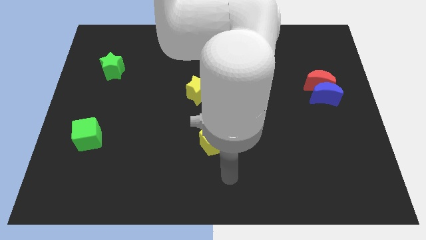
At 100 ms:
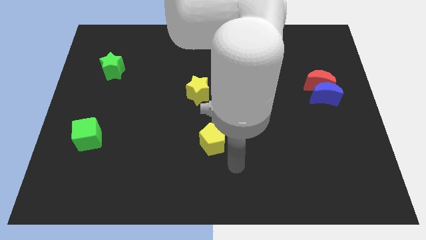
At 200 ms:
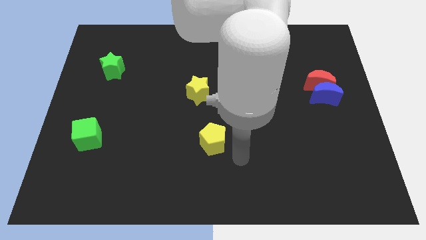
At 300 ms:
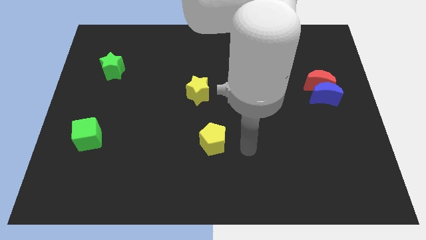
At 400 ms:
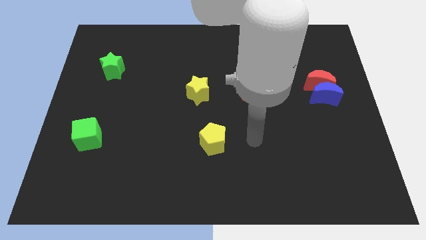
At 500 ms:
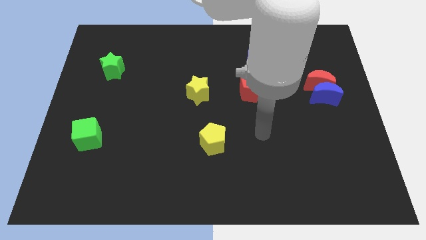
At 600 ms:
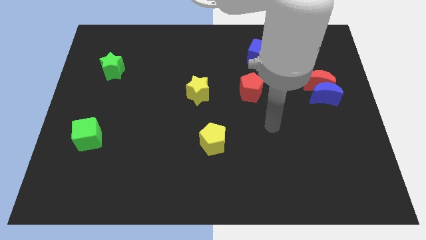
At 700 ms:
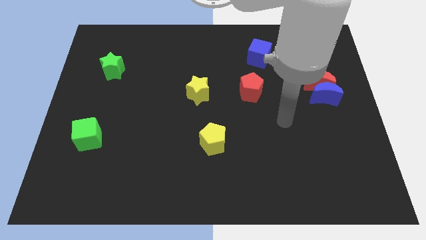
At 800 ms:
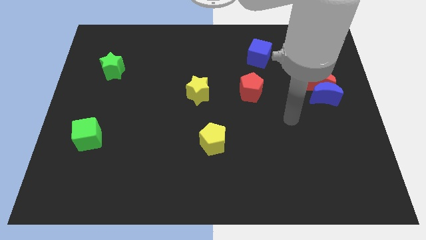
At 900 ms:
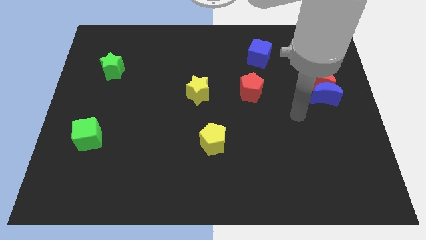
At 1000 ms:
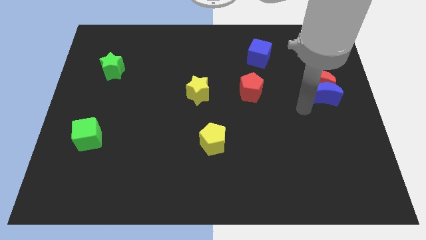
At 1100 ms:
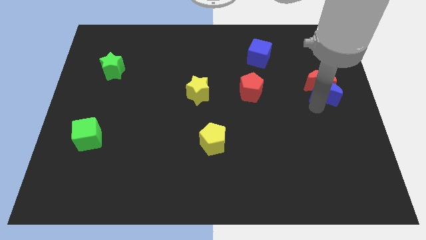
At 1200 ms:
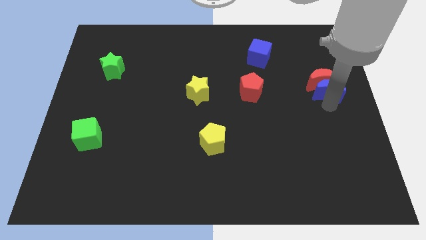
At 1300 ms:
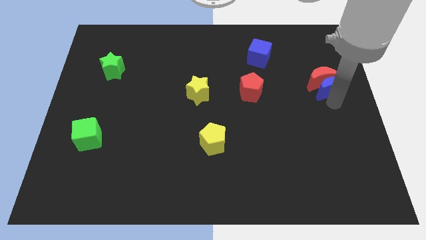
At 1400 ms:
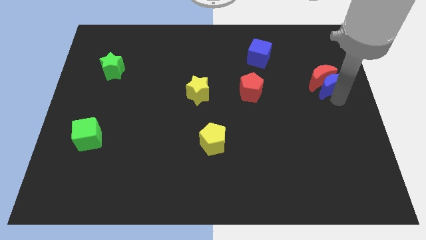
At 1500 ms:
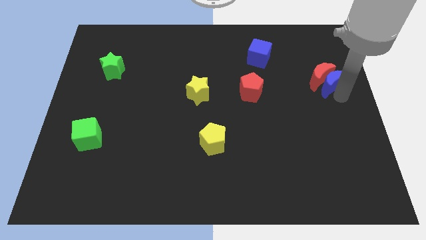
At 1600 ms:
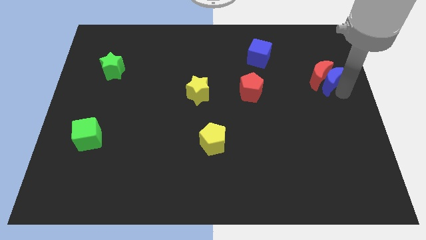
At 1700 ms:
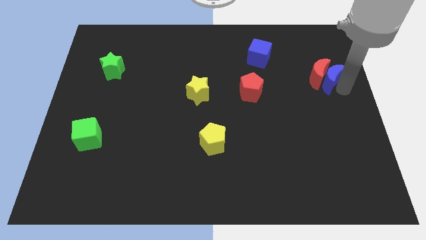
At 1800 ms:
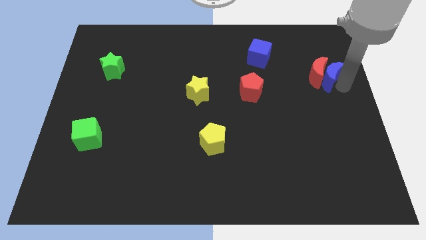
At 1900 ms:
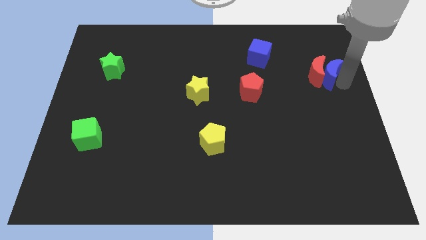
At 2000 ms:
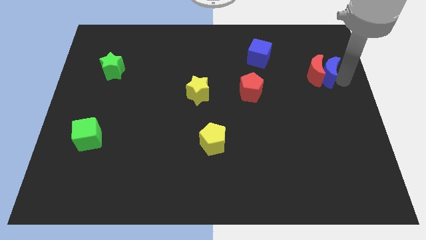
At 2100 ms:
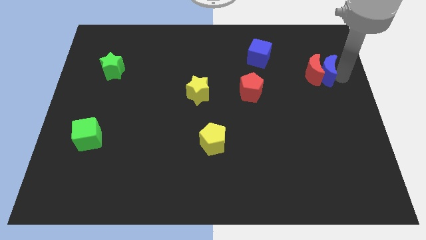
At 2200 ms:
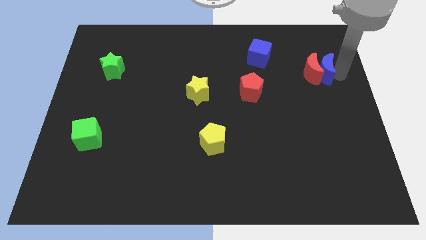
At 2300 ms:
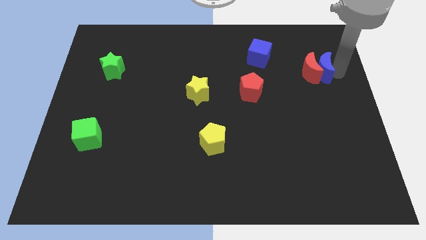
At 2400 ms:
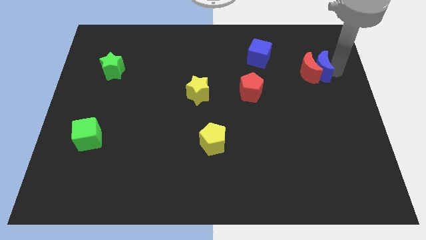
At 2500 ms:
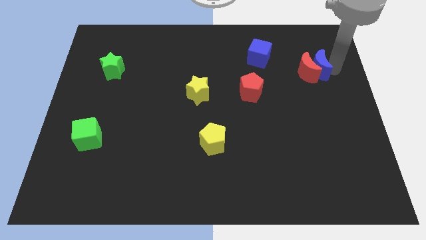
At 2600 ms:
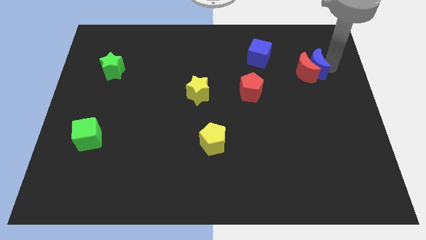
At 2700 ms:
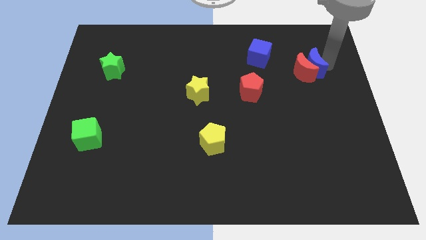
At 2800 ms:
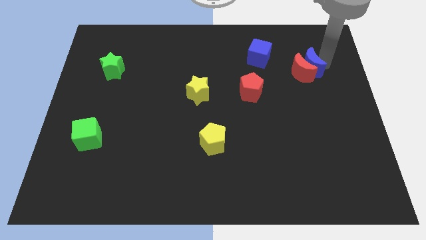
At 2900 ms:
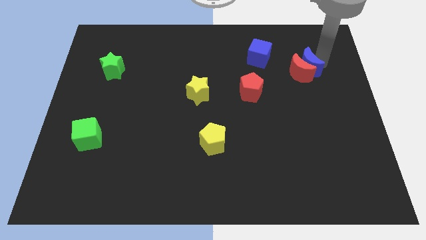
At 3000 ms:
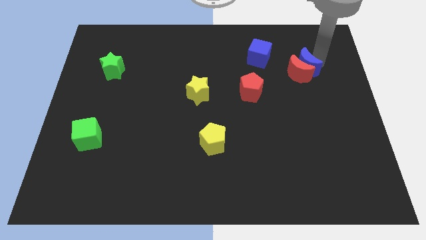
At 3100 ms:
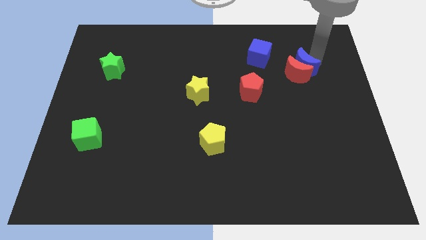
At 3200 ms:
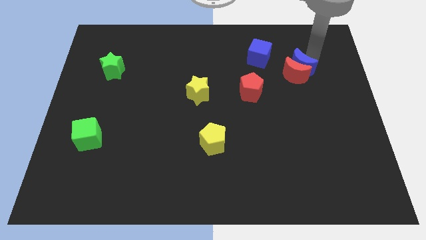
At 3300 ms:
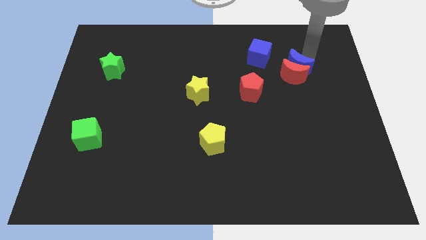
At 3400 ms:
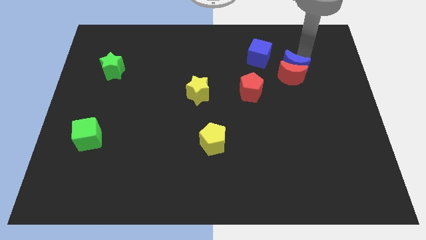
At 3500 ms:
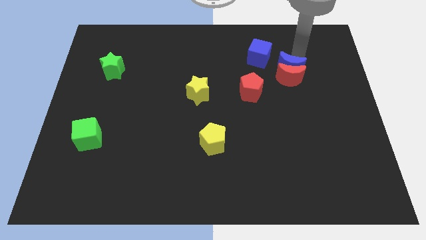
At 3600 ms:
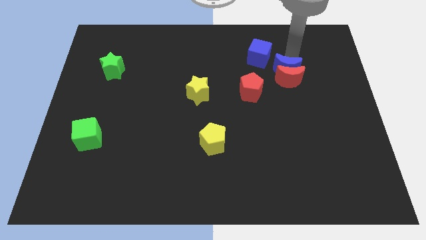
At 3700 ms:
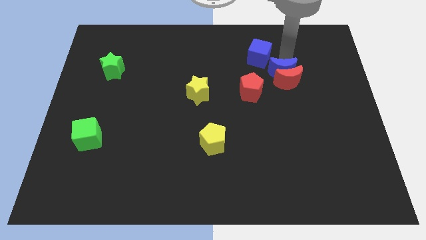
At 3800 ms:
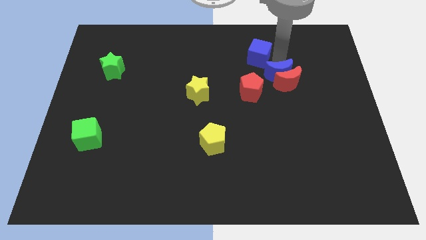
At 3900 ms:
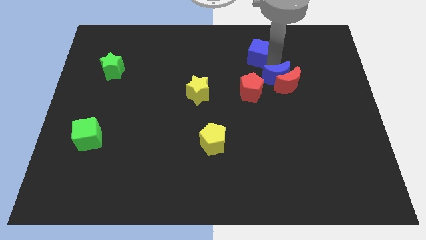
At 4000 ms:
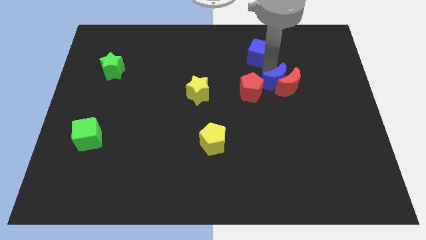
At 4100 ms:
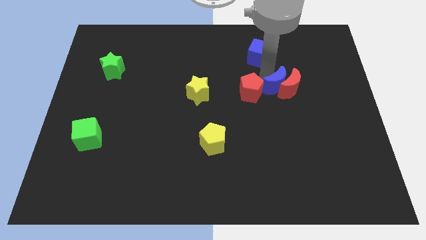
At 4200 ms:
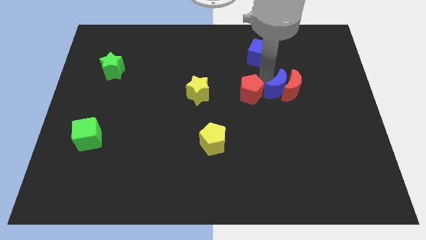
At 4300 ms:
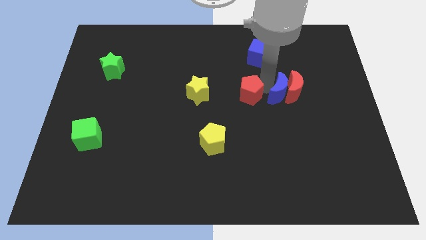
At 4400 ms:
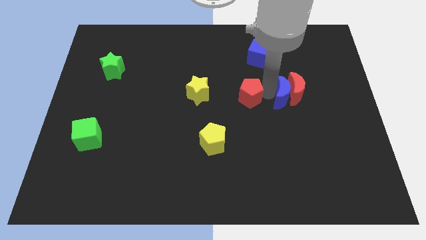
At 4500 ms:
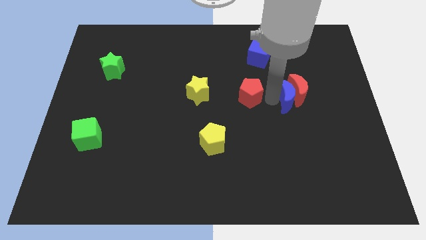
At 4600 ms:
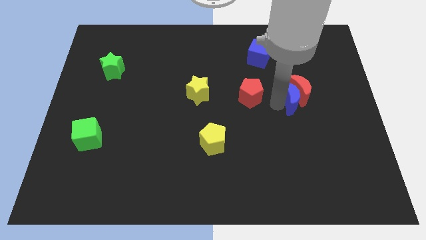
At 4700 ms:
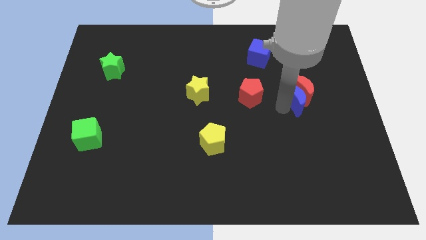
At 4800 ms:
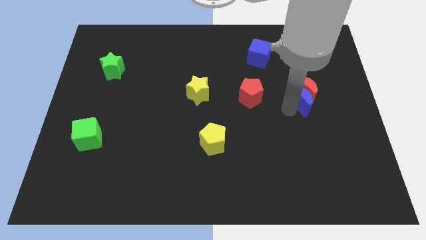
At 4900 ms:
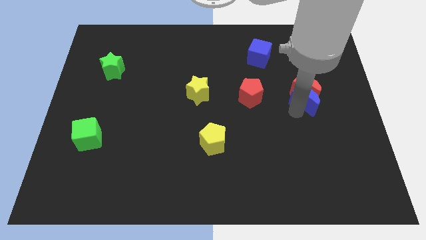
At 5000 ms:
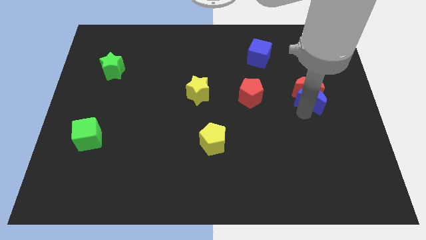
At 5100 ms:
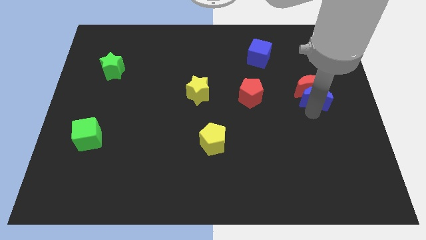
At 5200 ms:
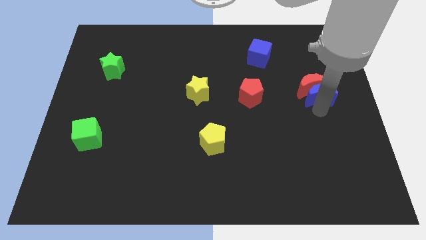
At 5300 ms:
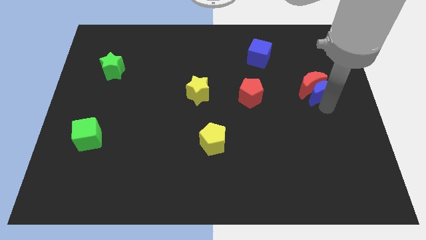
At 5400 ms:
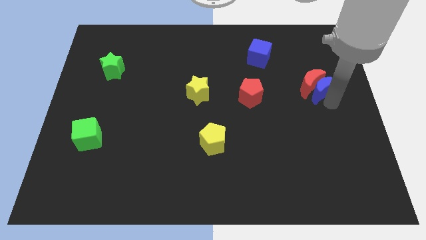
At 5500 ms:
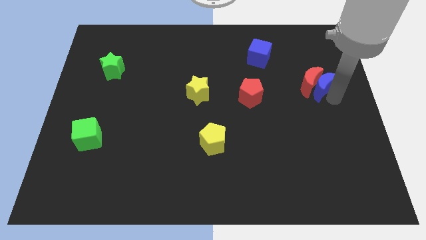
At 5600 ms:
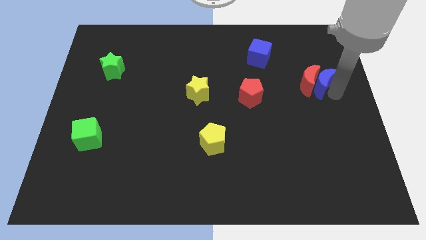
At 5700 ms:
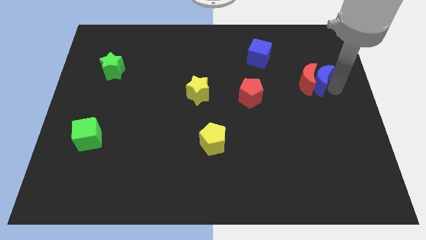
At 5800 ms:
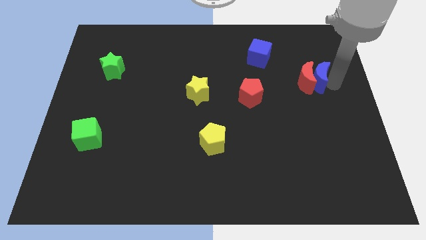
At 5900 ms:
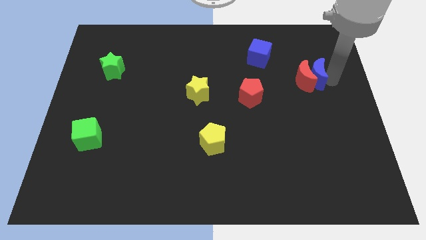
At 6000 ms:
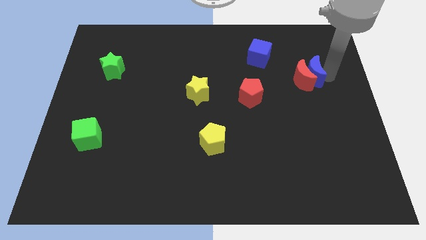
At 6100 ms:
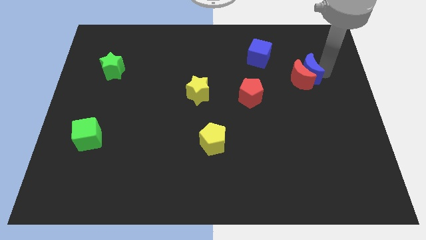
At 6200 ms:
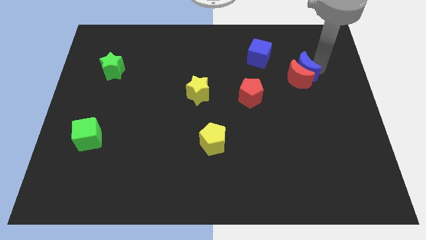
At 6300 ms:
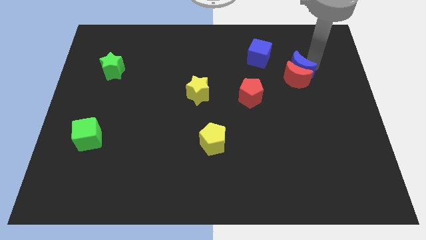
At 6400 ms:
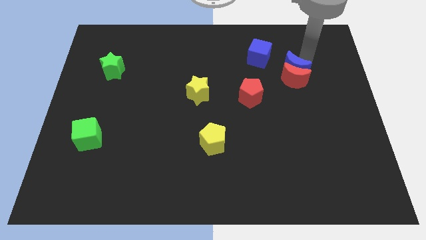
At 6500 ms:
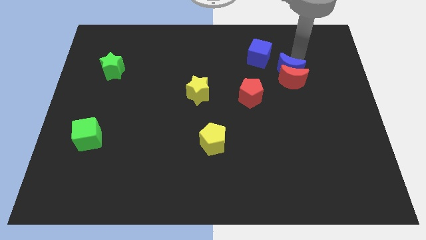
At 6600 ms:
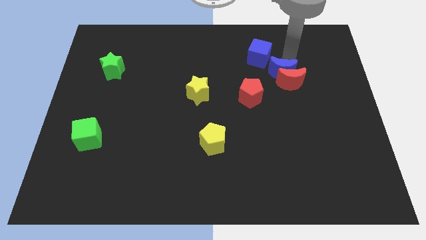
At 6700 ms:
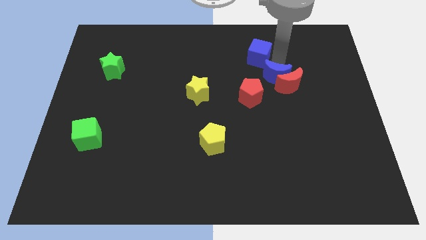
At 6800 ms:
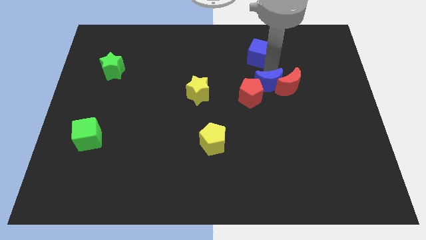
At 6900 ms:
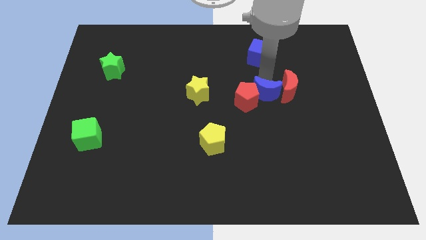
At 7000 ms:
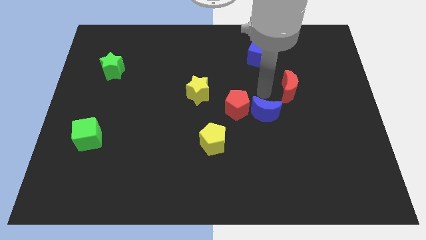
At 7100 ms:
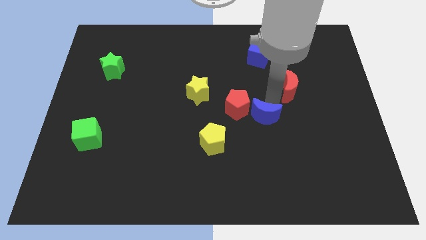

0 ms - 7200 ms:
move the red moon away from the blue moon

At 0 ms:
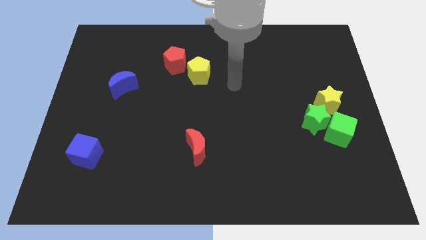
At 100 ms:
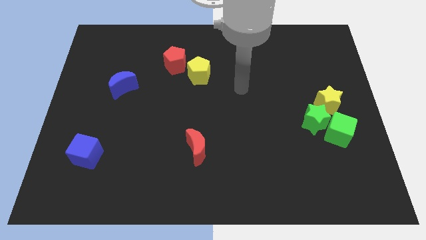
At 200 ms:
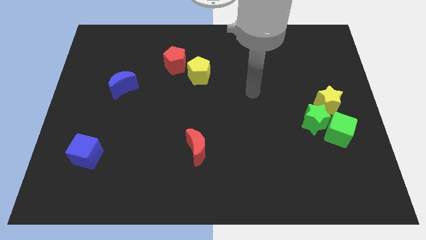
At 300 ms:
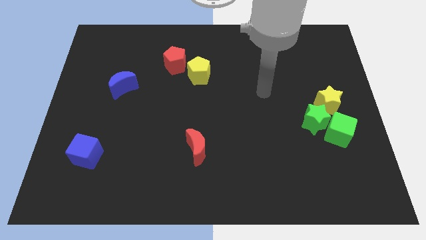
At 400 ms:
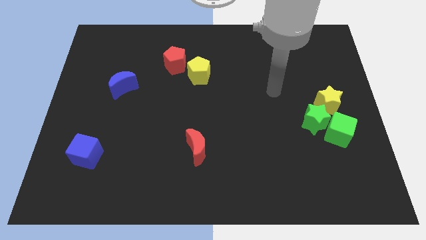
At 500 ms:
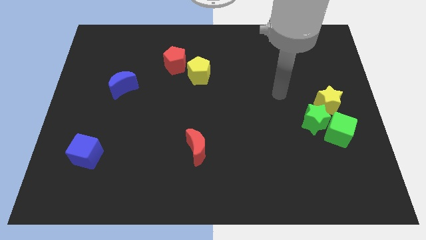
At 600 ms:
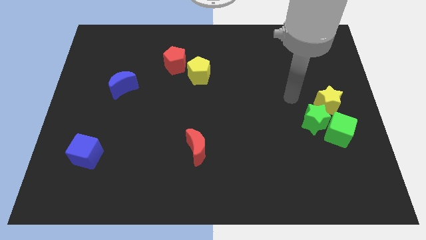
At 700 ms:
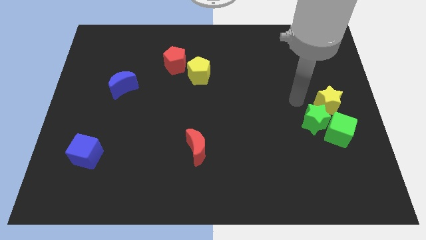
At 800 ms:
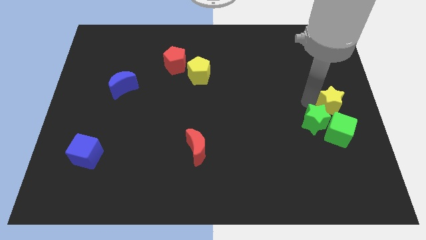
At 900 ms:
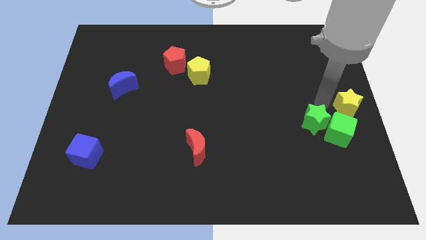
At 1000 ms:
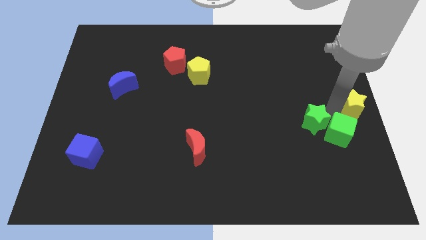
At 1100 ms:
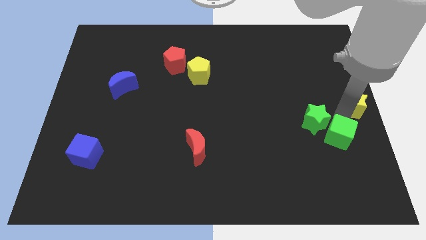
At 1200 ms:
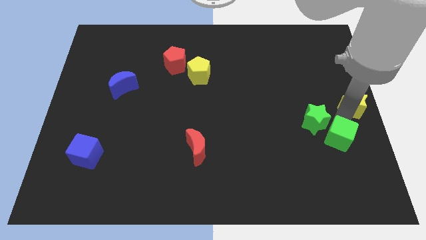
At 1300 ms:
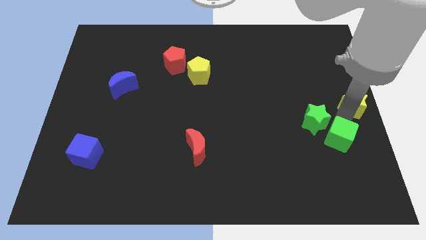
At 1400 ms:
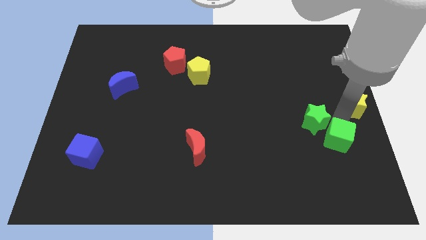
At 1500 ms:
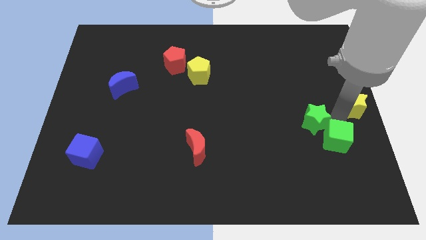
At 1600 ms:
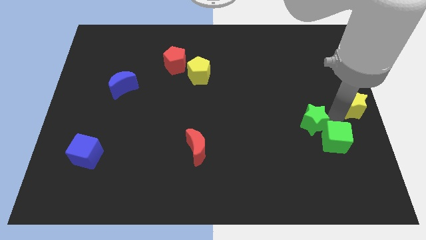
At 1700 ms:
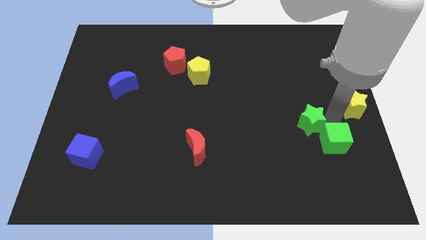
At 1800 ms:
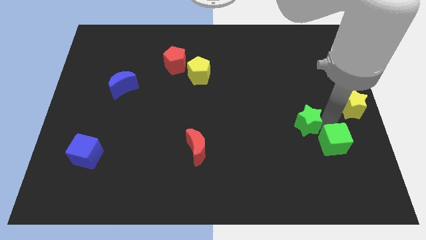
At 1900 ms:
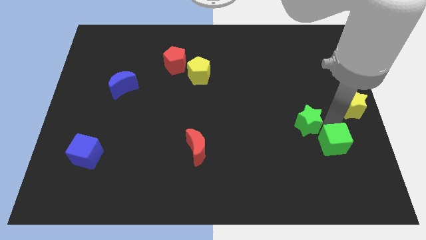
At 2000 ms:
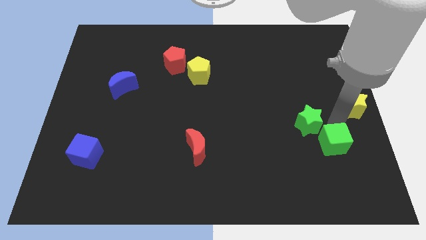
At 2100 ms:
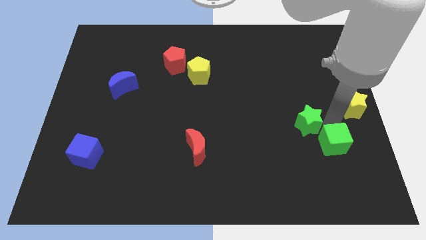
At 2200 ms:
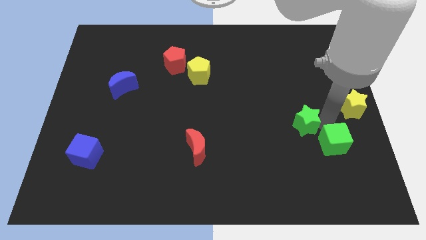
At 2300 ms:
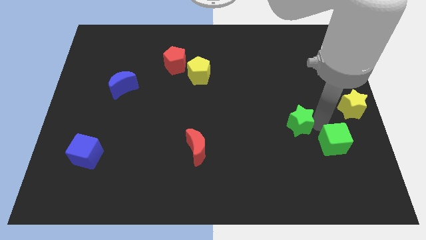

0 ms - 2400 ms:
move the green star away from the green cube and yellow star

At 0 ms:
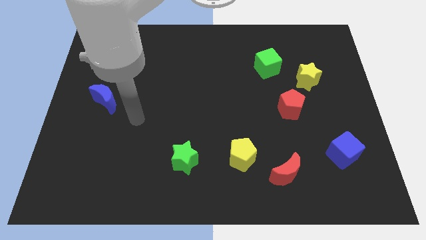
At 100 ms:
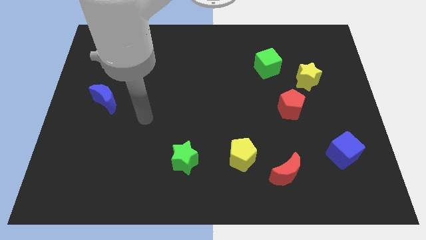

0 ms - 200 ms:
separate the red moon from the yellow pentagon
